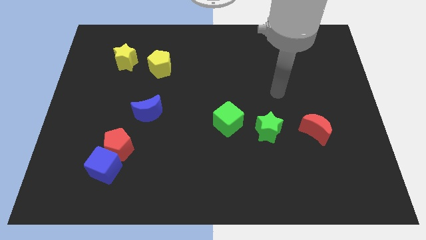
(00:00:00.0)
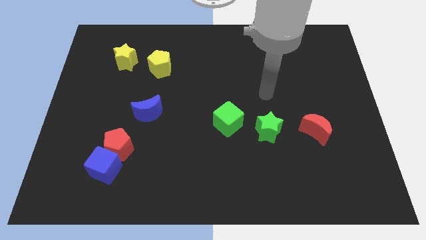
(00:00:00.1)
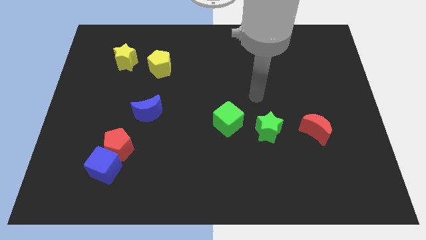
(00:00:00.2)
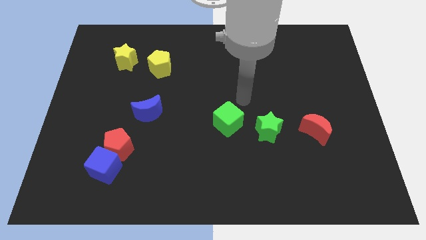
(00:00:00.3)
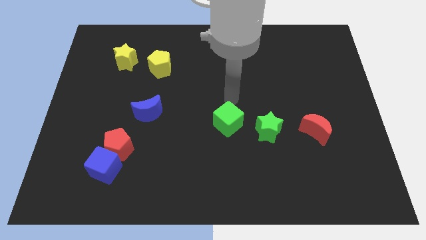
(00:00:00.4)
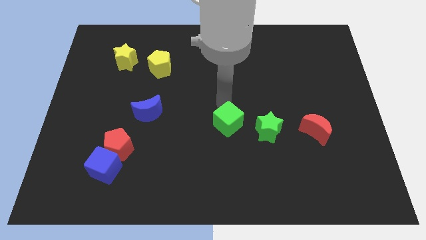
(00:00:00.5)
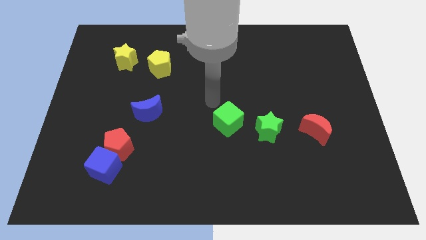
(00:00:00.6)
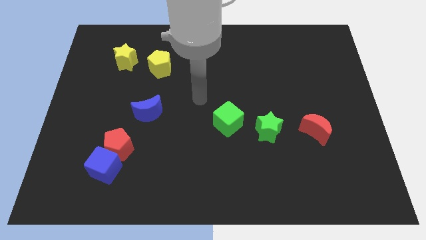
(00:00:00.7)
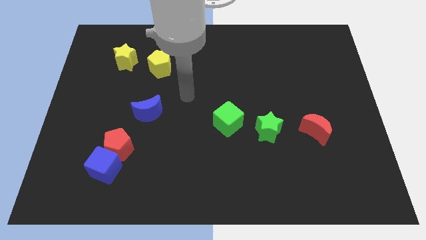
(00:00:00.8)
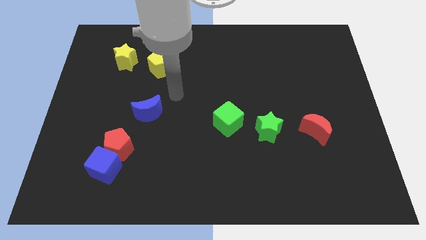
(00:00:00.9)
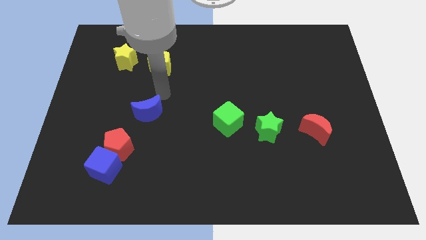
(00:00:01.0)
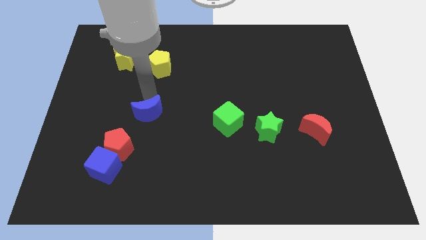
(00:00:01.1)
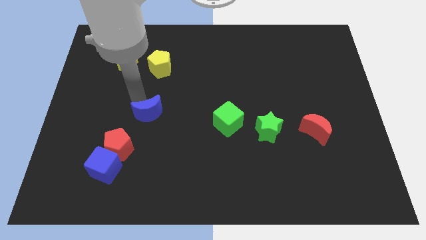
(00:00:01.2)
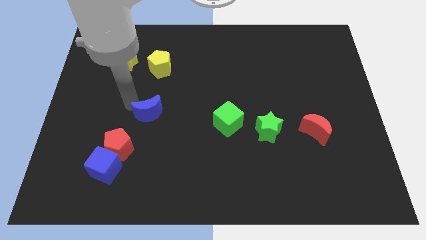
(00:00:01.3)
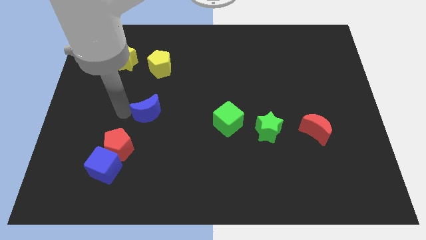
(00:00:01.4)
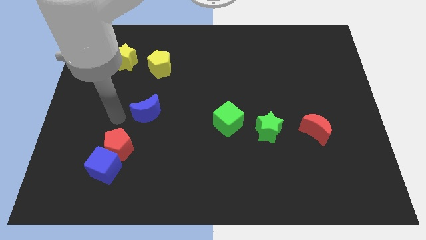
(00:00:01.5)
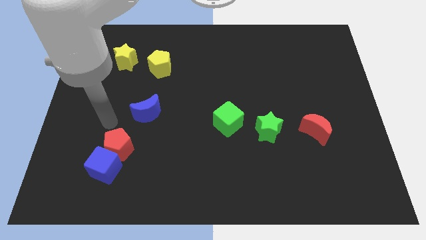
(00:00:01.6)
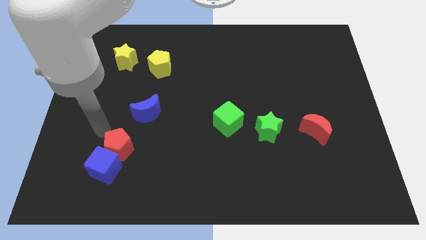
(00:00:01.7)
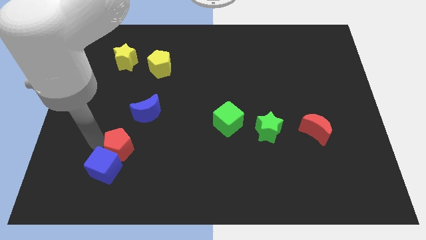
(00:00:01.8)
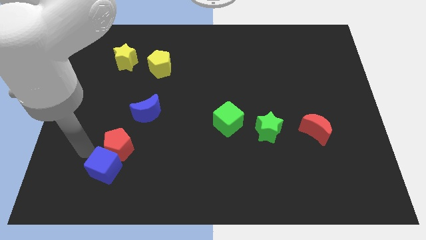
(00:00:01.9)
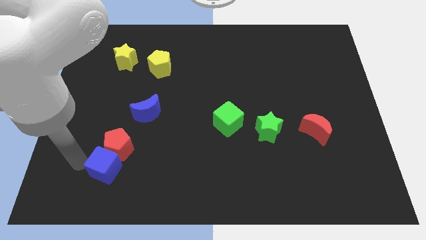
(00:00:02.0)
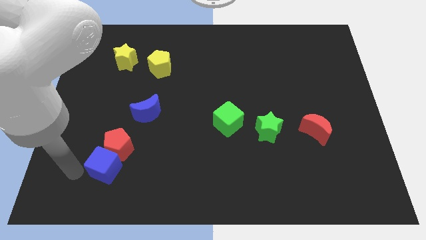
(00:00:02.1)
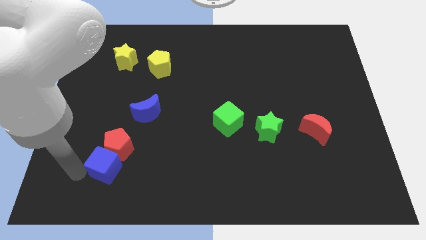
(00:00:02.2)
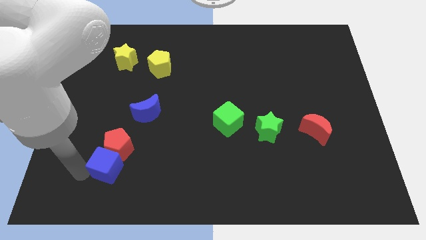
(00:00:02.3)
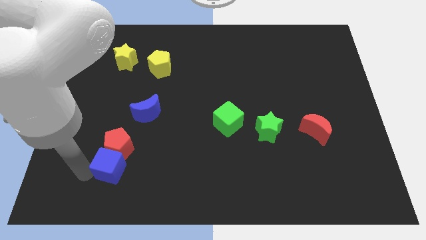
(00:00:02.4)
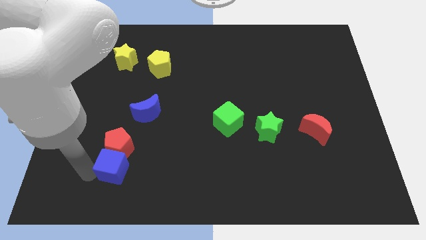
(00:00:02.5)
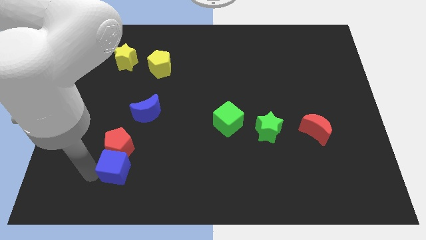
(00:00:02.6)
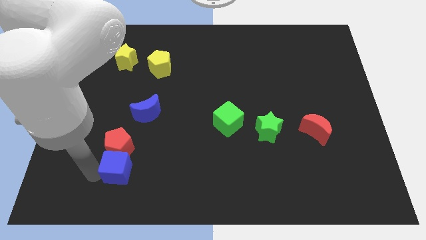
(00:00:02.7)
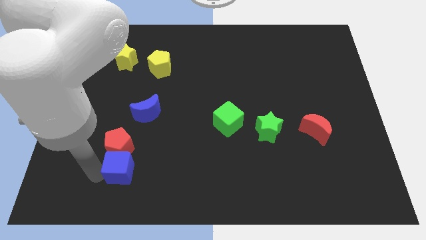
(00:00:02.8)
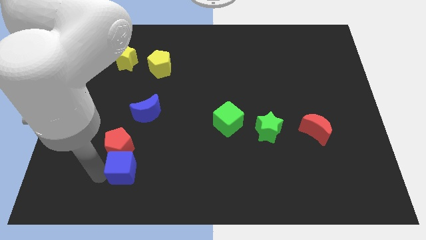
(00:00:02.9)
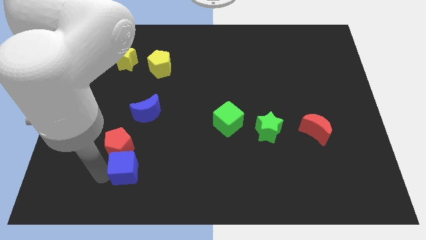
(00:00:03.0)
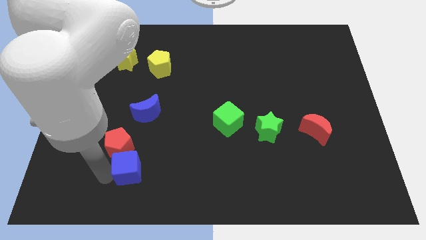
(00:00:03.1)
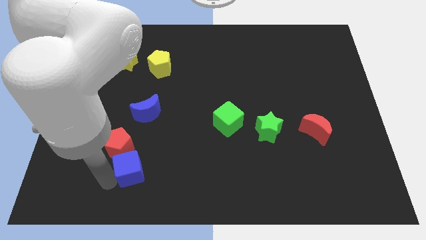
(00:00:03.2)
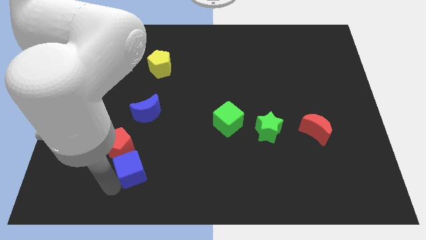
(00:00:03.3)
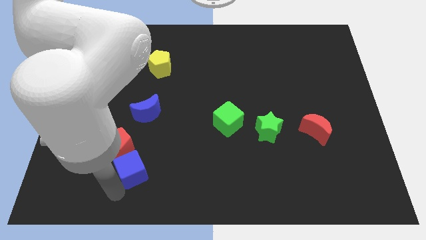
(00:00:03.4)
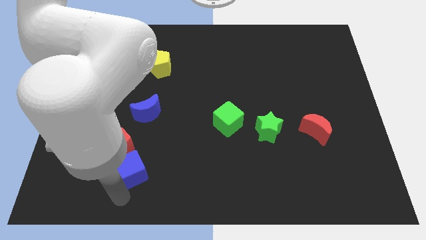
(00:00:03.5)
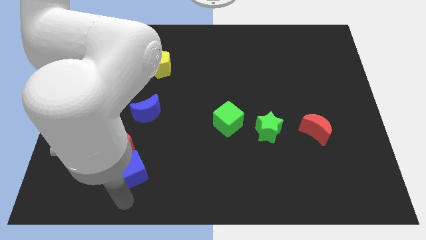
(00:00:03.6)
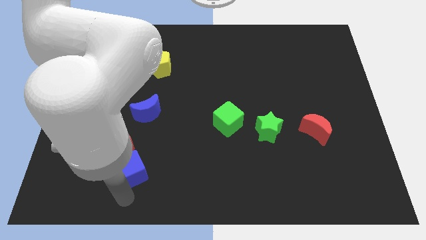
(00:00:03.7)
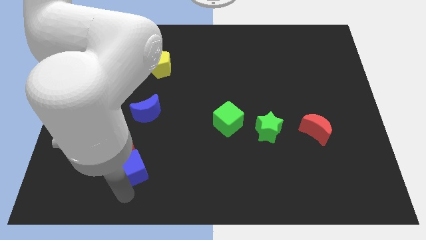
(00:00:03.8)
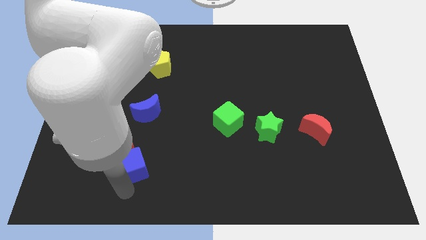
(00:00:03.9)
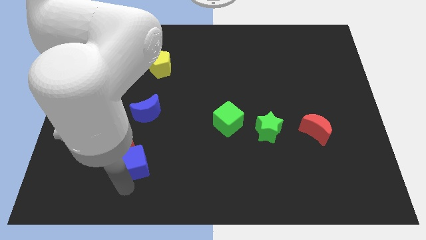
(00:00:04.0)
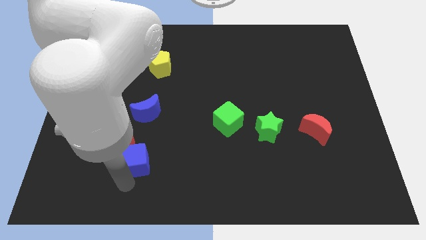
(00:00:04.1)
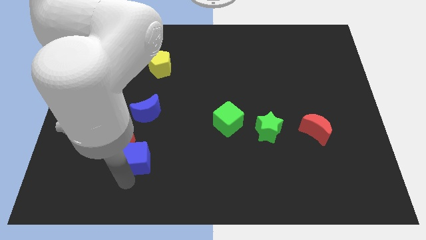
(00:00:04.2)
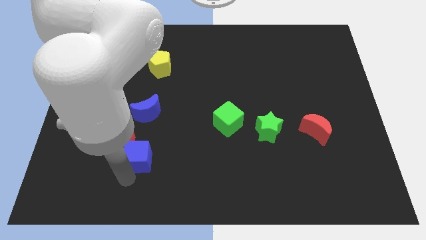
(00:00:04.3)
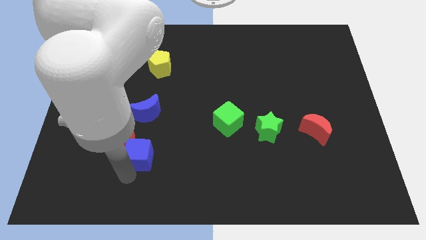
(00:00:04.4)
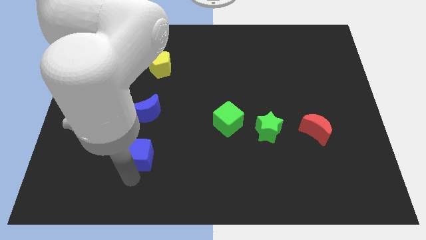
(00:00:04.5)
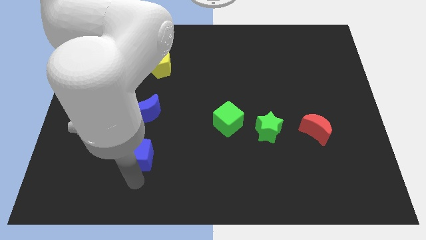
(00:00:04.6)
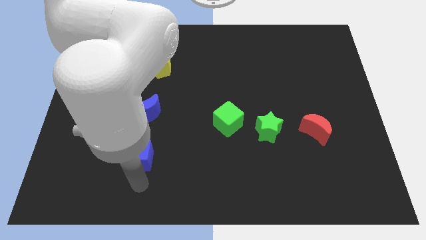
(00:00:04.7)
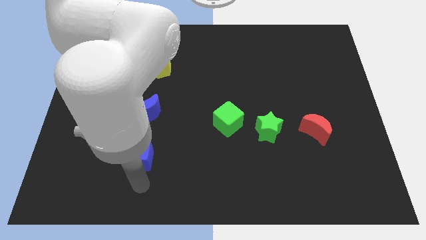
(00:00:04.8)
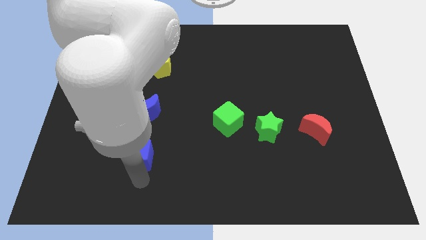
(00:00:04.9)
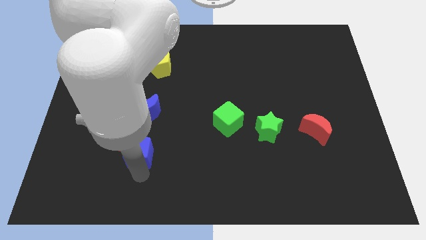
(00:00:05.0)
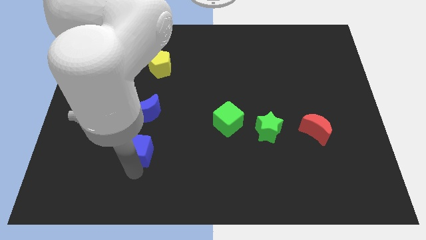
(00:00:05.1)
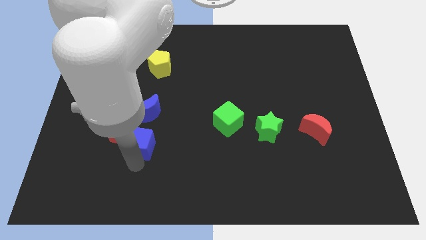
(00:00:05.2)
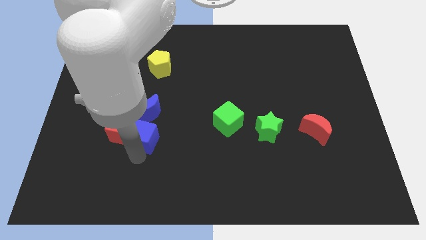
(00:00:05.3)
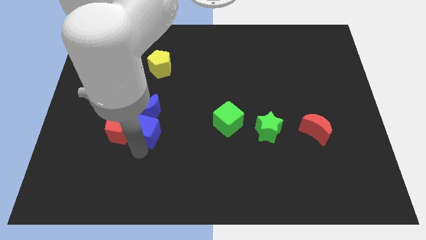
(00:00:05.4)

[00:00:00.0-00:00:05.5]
slide the blue cube next to the blue moon

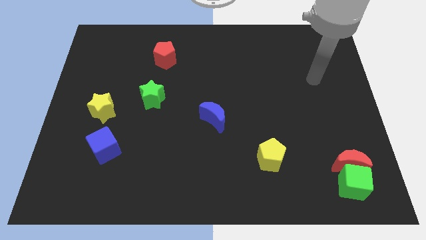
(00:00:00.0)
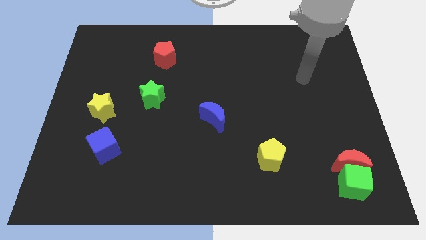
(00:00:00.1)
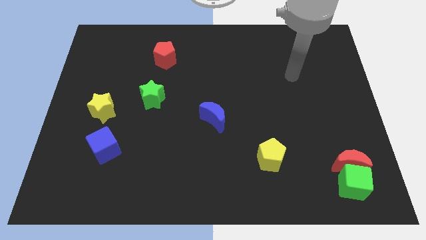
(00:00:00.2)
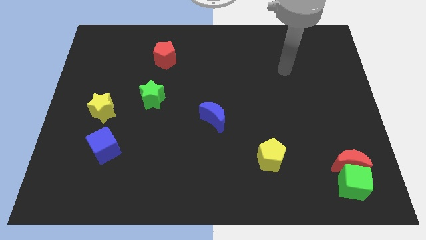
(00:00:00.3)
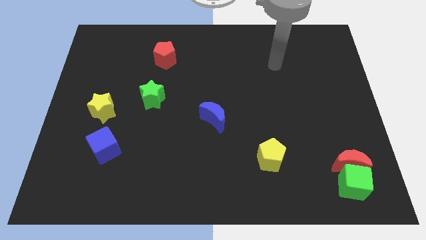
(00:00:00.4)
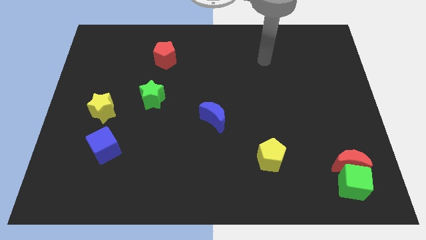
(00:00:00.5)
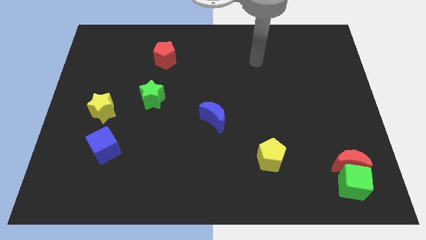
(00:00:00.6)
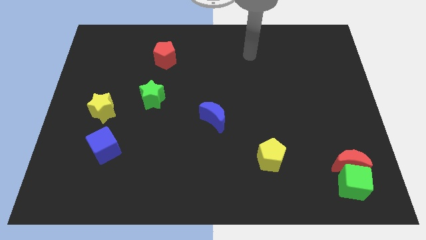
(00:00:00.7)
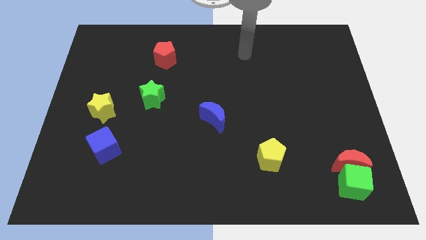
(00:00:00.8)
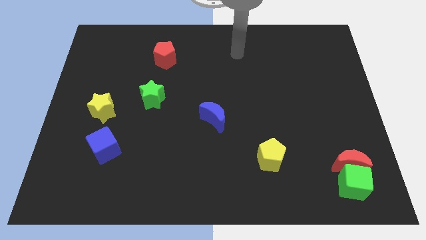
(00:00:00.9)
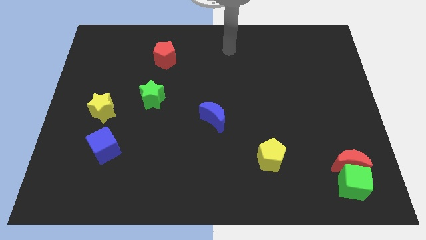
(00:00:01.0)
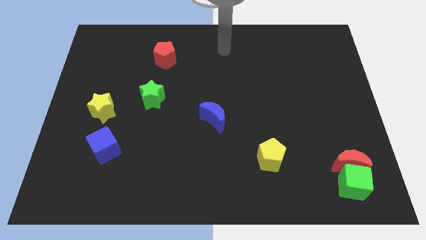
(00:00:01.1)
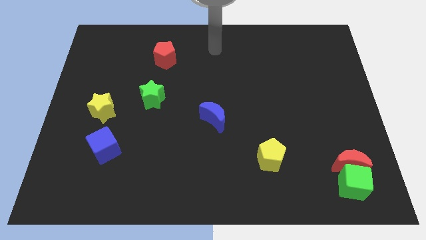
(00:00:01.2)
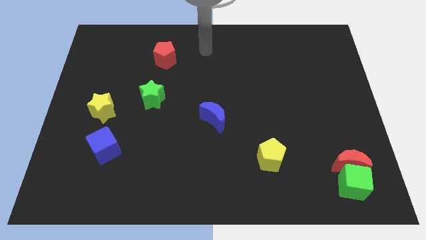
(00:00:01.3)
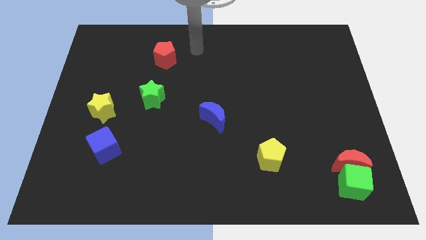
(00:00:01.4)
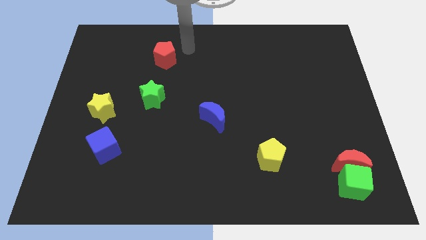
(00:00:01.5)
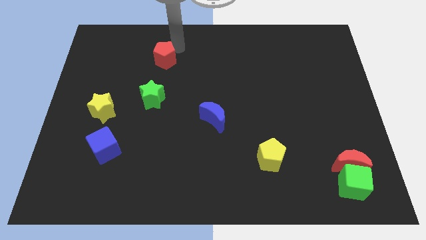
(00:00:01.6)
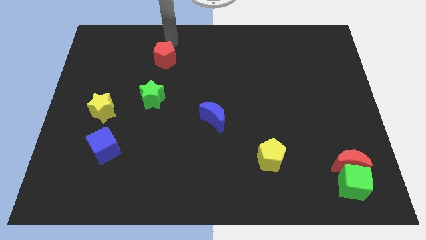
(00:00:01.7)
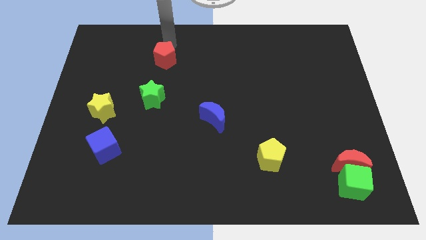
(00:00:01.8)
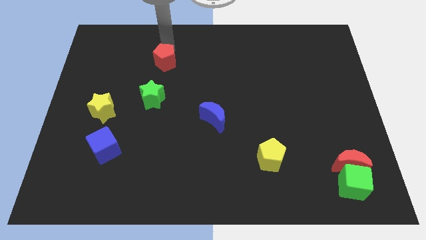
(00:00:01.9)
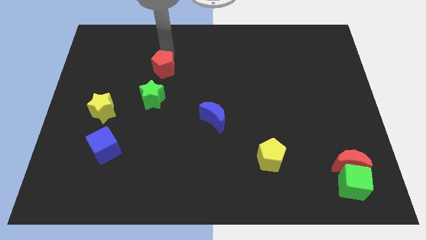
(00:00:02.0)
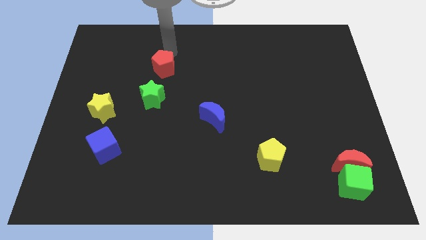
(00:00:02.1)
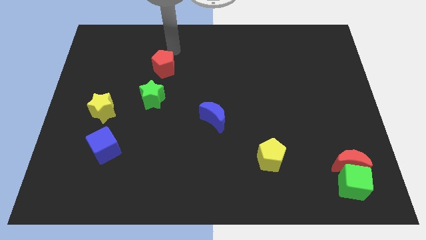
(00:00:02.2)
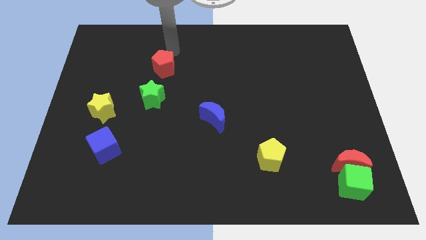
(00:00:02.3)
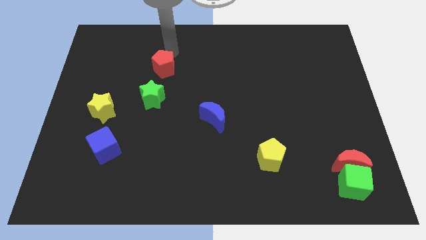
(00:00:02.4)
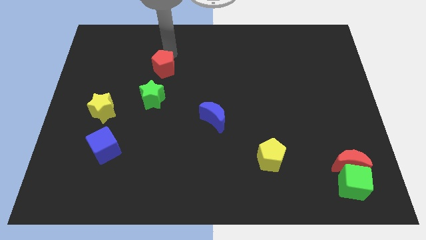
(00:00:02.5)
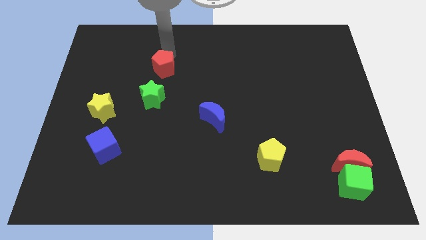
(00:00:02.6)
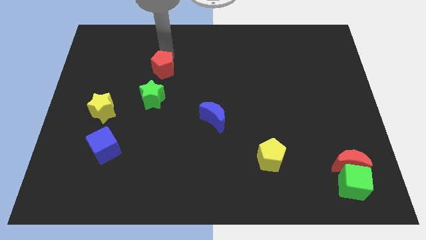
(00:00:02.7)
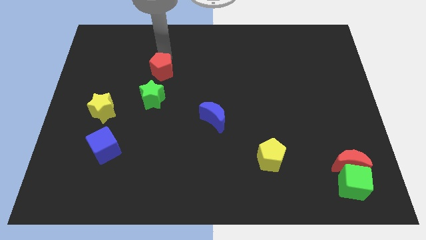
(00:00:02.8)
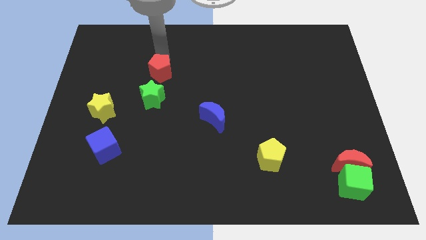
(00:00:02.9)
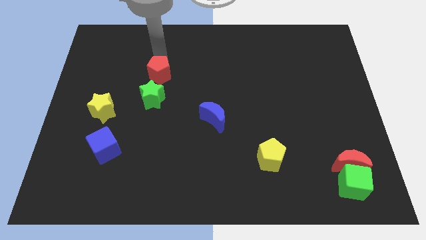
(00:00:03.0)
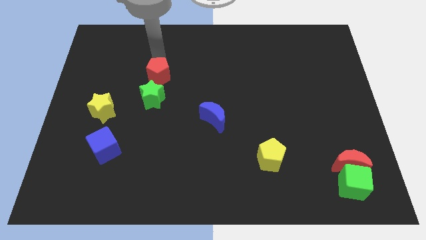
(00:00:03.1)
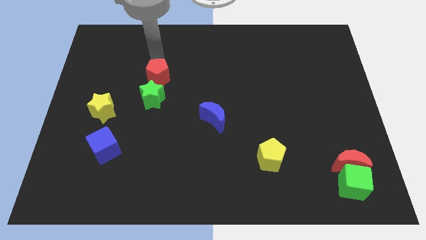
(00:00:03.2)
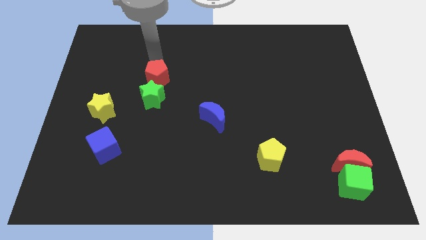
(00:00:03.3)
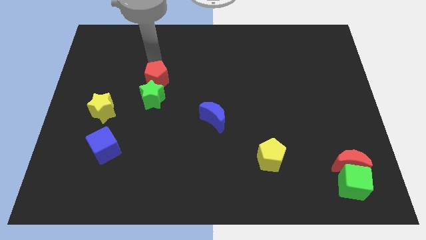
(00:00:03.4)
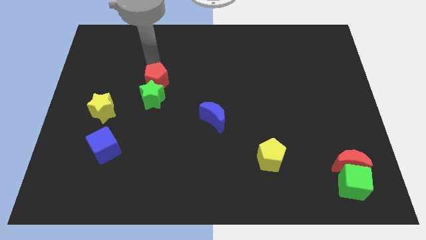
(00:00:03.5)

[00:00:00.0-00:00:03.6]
slide the red pentagon next to the green star
